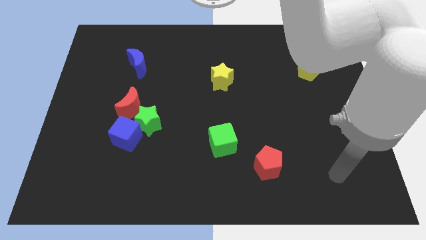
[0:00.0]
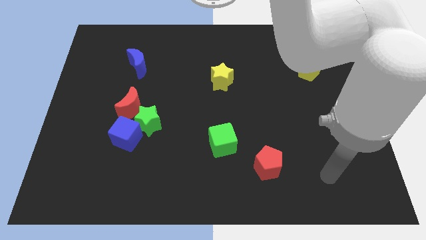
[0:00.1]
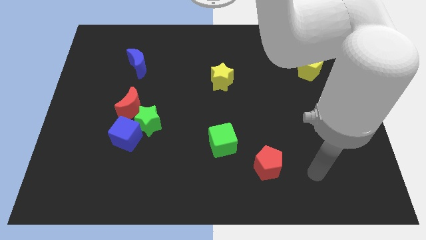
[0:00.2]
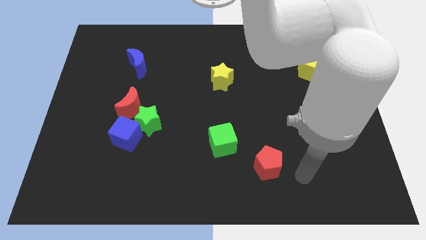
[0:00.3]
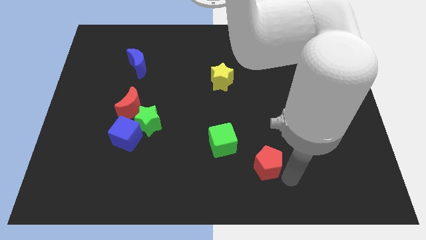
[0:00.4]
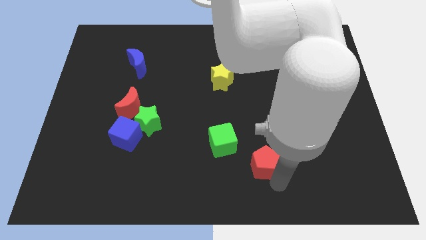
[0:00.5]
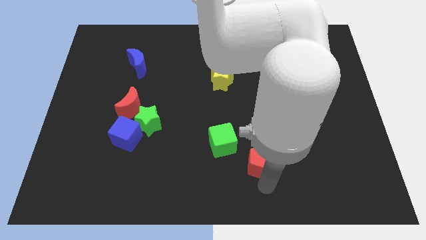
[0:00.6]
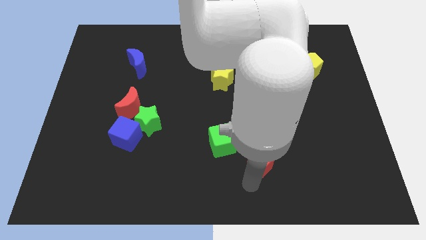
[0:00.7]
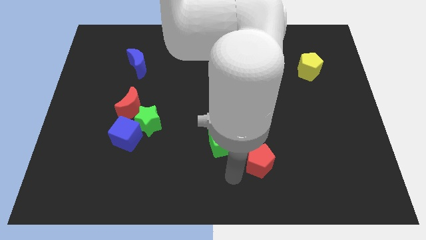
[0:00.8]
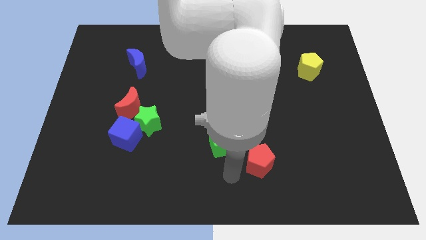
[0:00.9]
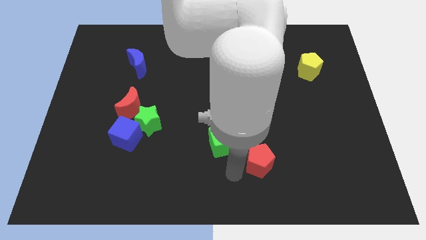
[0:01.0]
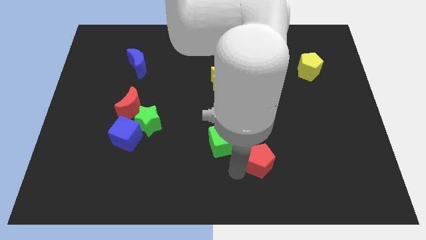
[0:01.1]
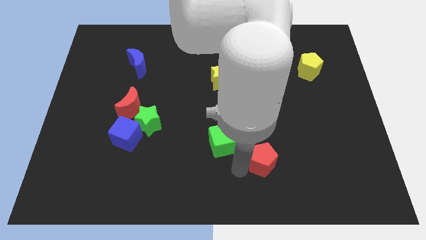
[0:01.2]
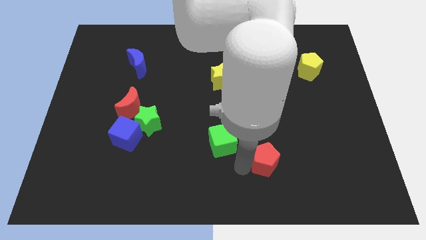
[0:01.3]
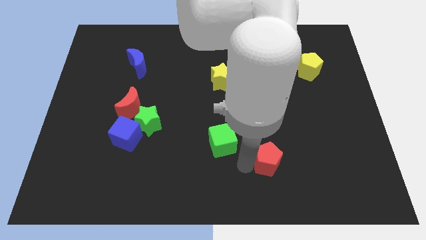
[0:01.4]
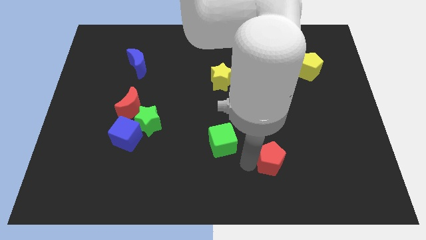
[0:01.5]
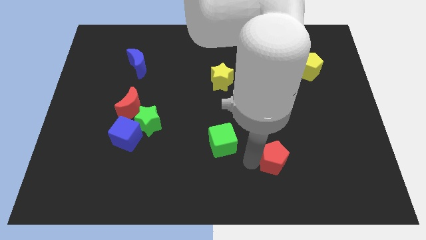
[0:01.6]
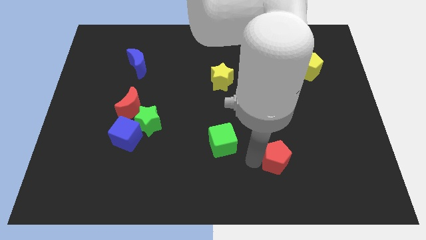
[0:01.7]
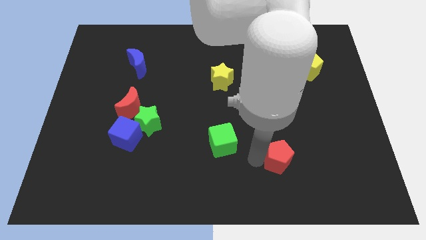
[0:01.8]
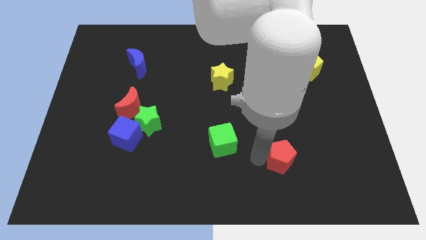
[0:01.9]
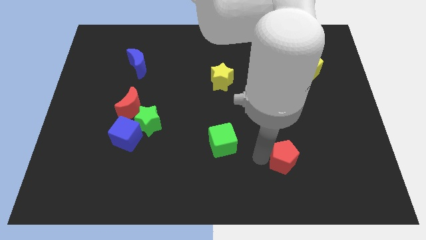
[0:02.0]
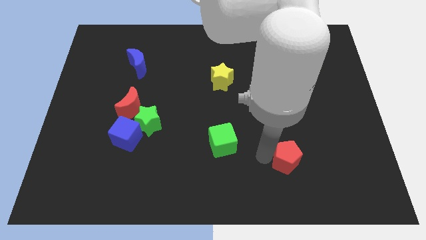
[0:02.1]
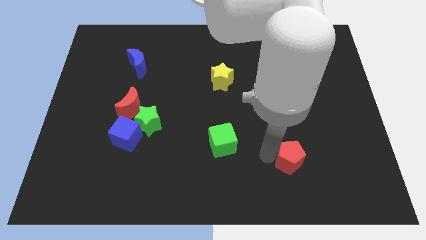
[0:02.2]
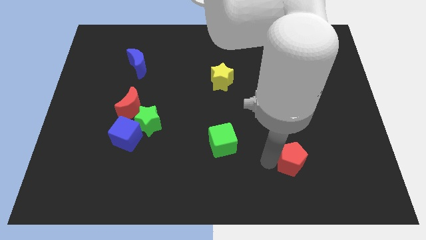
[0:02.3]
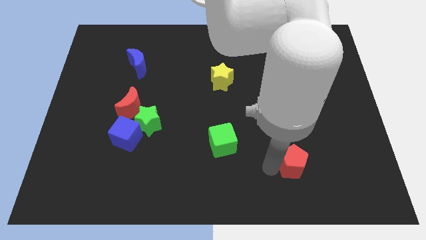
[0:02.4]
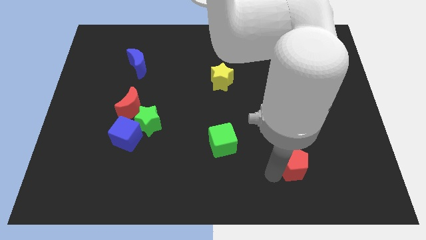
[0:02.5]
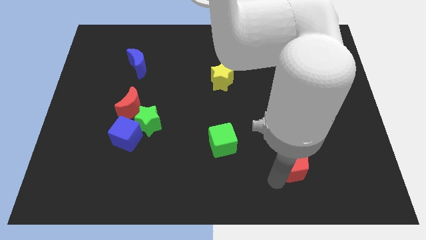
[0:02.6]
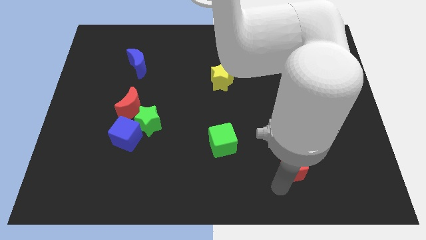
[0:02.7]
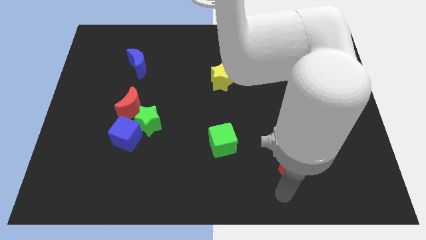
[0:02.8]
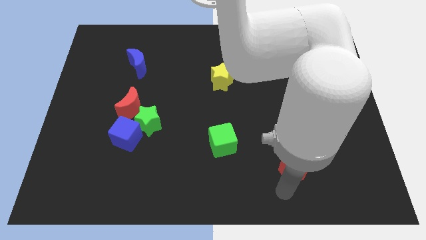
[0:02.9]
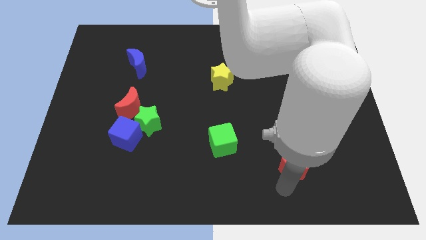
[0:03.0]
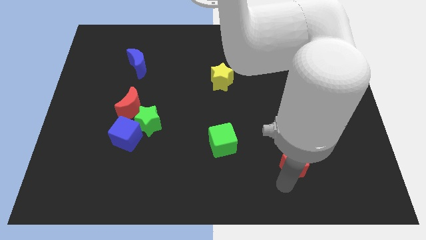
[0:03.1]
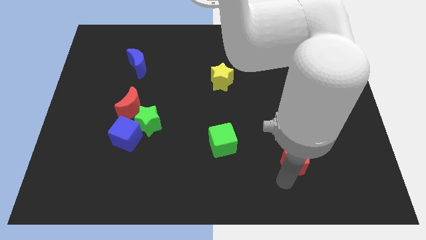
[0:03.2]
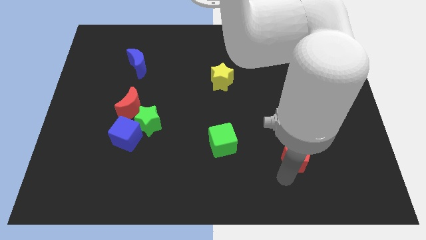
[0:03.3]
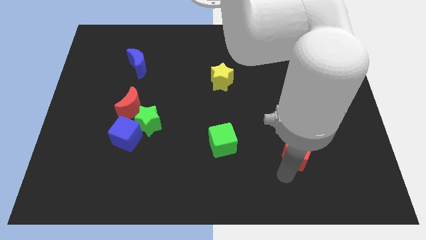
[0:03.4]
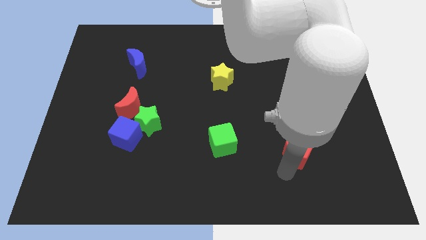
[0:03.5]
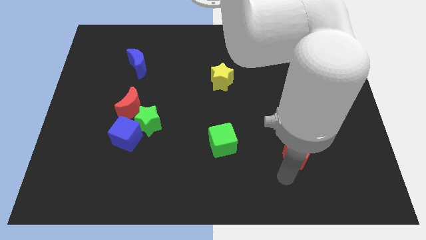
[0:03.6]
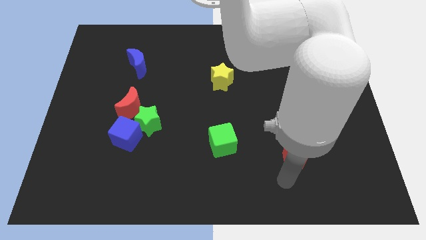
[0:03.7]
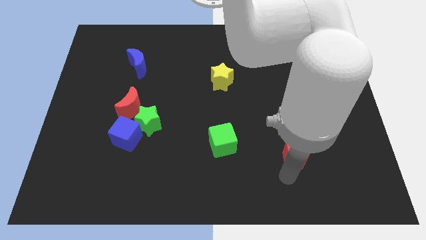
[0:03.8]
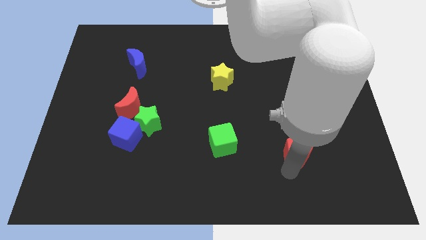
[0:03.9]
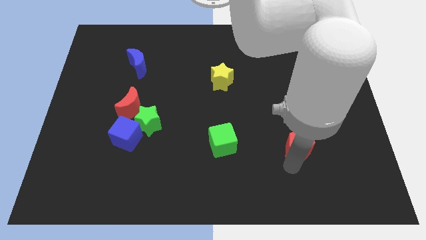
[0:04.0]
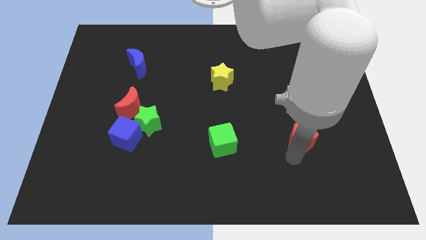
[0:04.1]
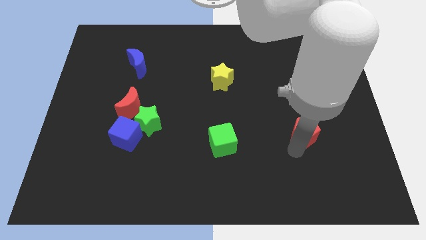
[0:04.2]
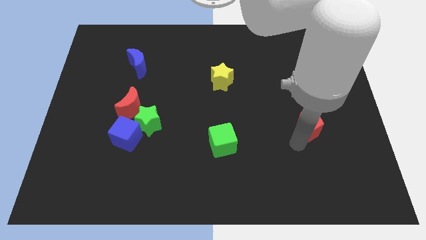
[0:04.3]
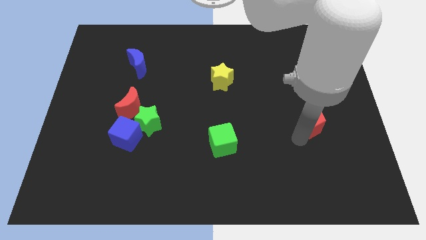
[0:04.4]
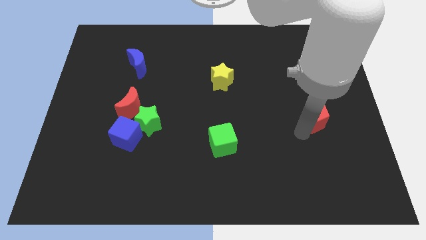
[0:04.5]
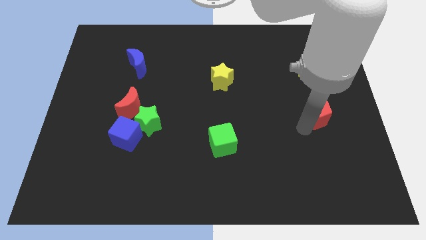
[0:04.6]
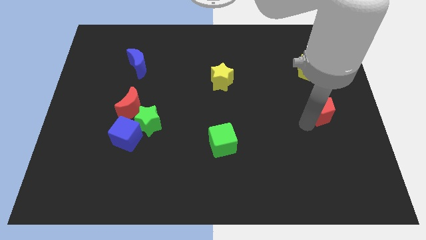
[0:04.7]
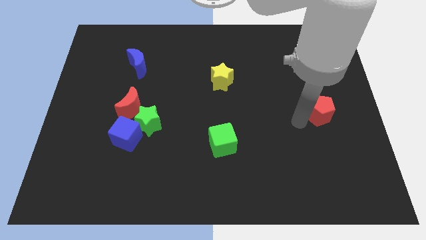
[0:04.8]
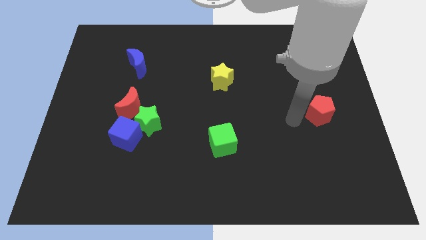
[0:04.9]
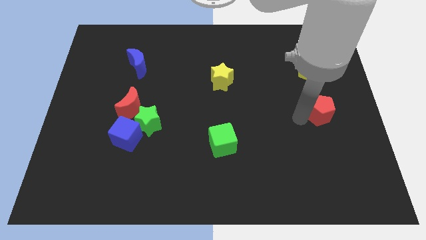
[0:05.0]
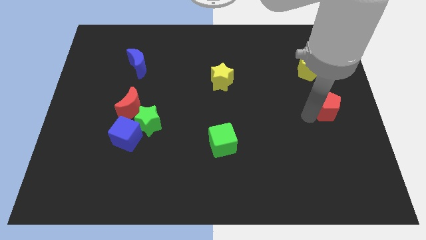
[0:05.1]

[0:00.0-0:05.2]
put the red pentagon to the right side
